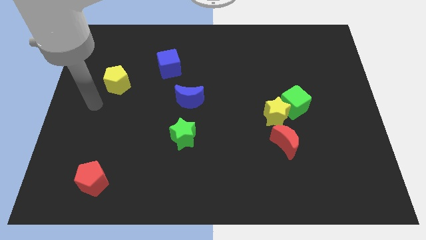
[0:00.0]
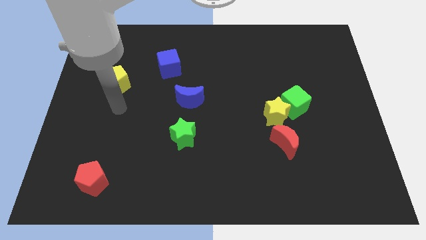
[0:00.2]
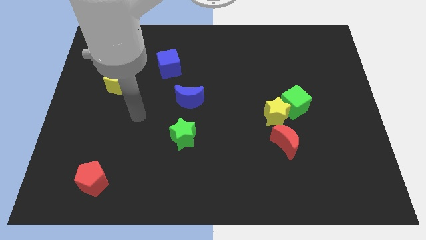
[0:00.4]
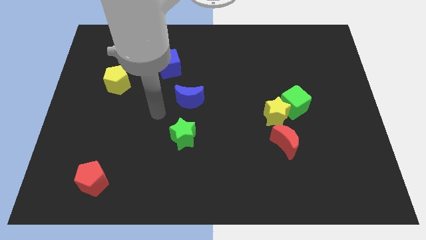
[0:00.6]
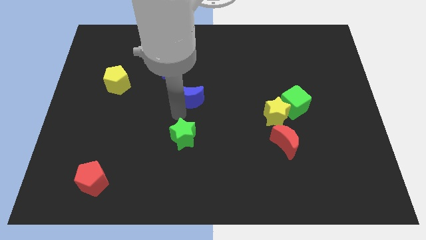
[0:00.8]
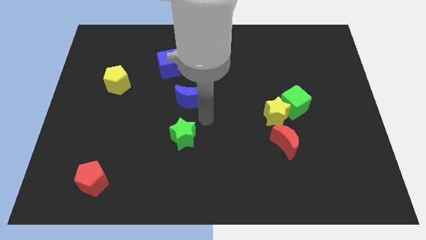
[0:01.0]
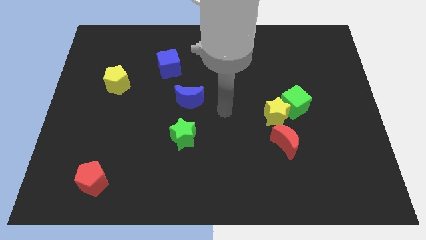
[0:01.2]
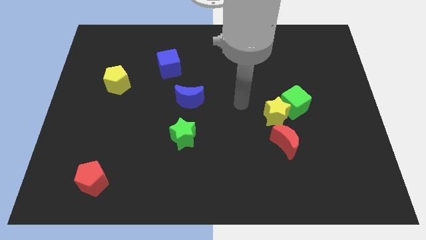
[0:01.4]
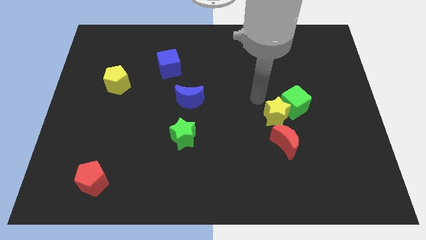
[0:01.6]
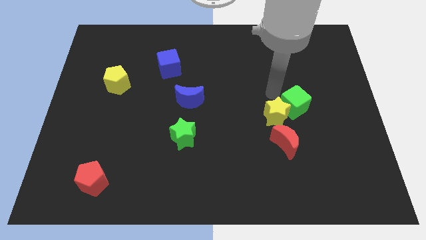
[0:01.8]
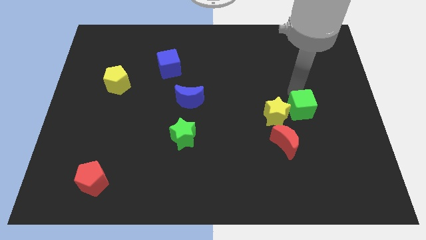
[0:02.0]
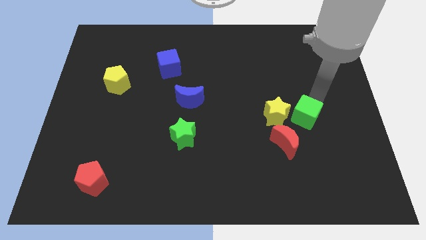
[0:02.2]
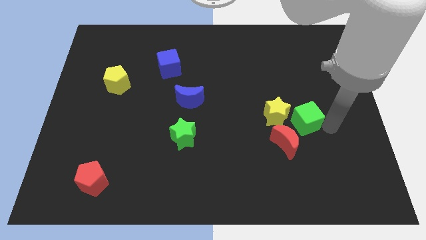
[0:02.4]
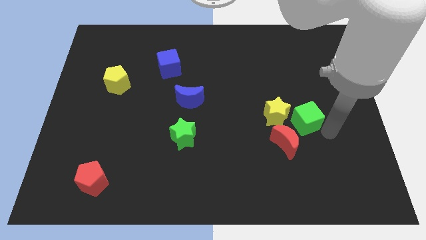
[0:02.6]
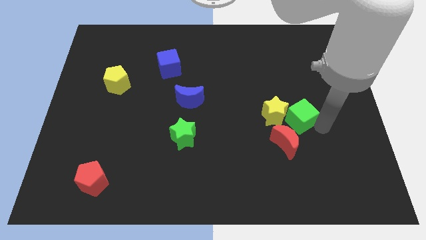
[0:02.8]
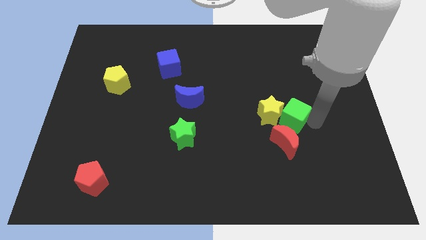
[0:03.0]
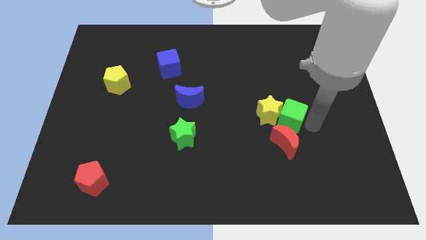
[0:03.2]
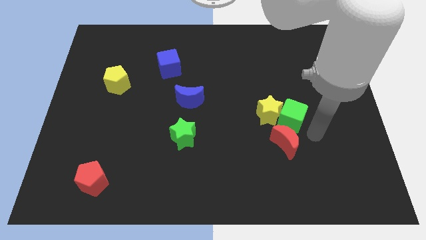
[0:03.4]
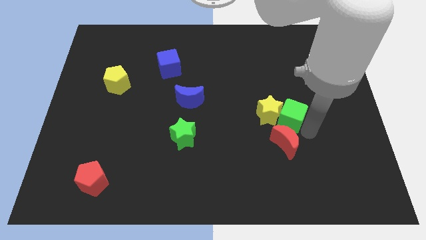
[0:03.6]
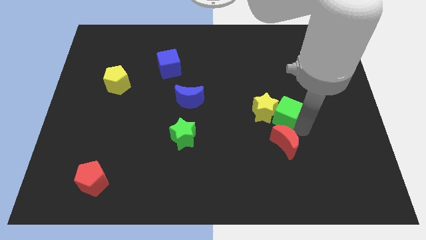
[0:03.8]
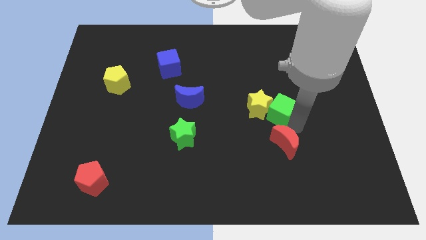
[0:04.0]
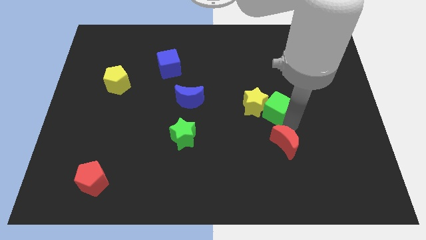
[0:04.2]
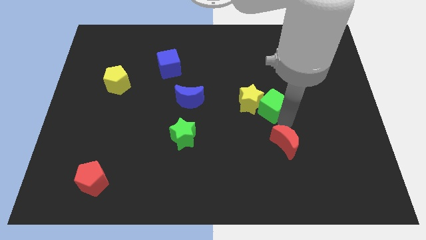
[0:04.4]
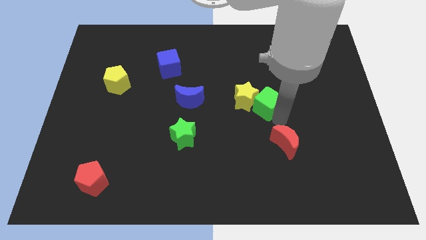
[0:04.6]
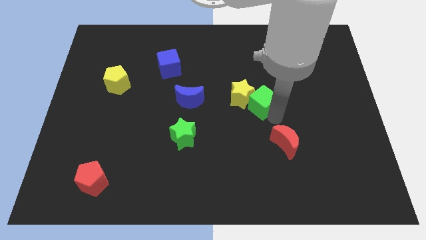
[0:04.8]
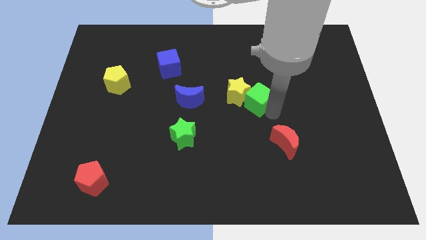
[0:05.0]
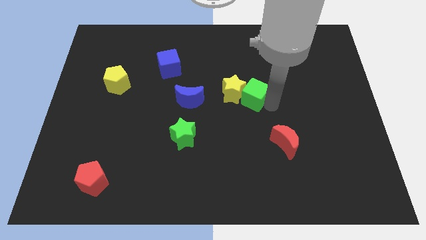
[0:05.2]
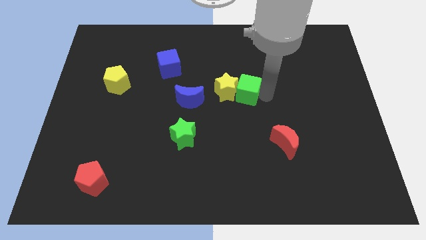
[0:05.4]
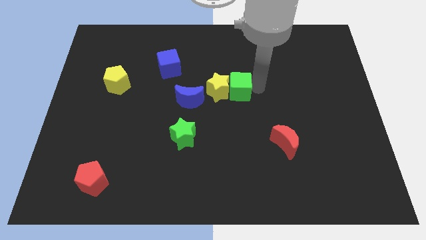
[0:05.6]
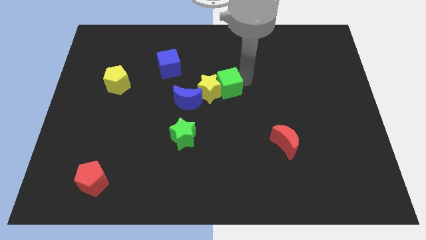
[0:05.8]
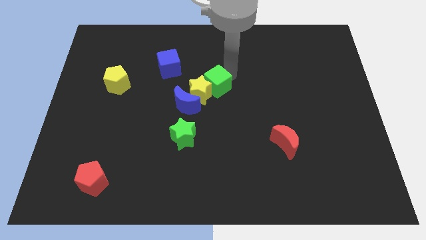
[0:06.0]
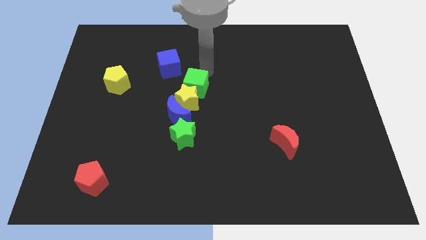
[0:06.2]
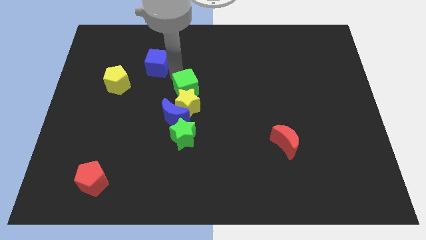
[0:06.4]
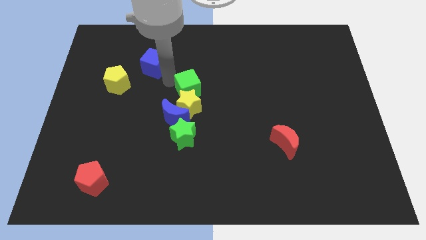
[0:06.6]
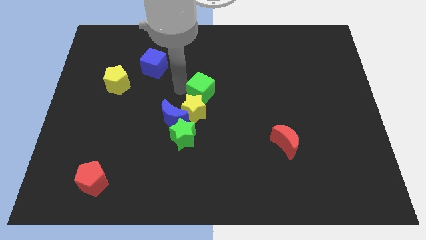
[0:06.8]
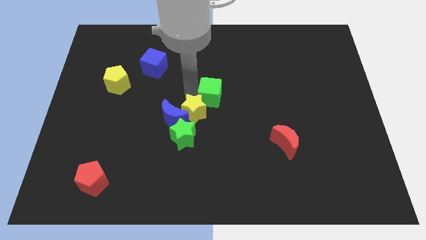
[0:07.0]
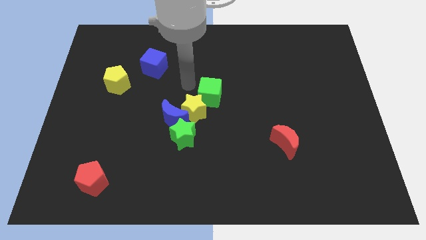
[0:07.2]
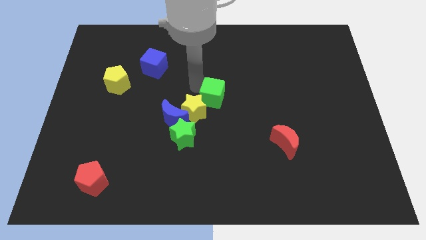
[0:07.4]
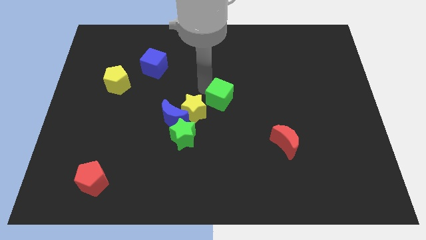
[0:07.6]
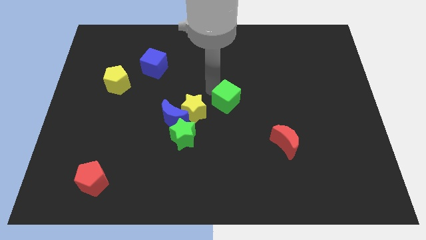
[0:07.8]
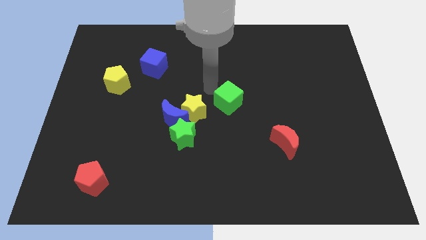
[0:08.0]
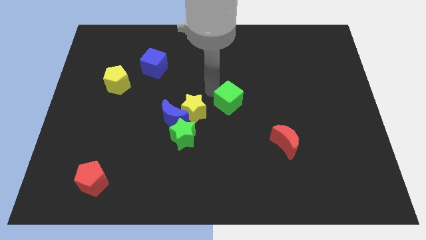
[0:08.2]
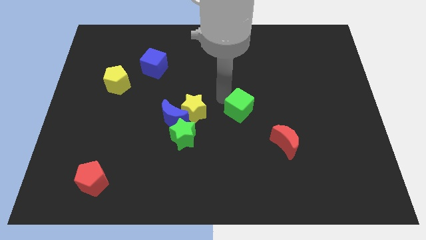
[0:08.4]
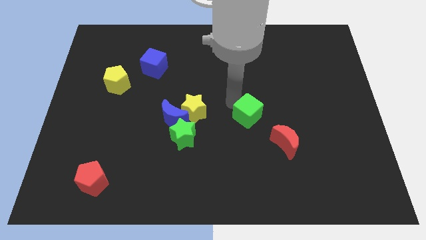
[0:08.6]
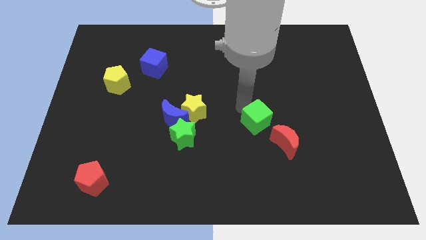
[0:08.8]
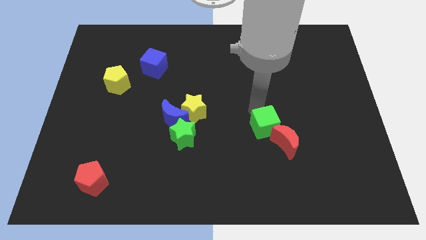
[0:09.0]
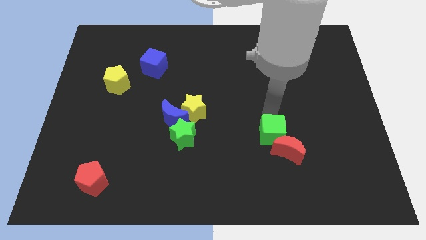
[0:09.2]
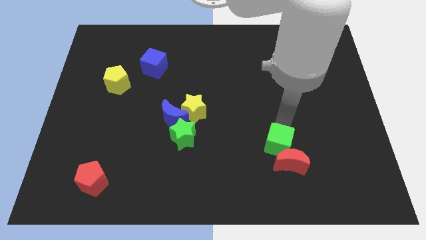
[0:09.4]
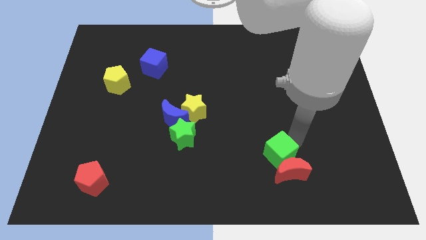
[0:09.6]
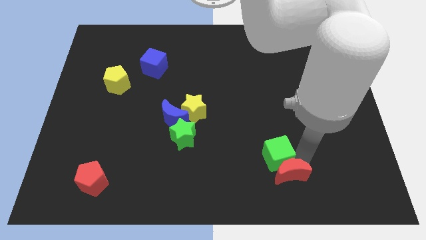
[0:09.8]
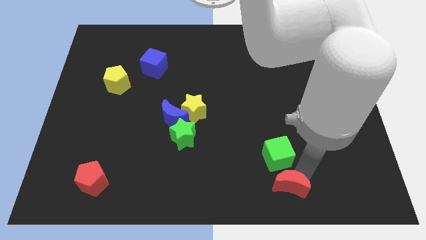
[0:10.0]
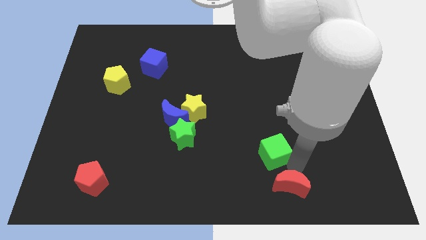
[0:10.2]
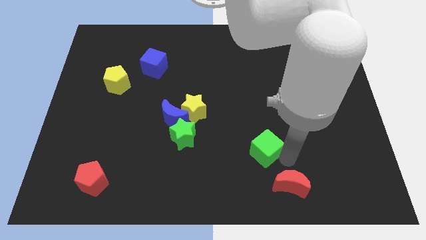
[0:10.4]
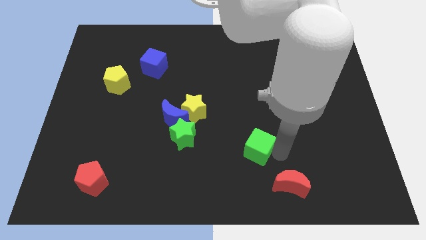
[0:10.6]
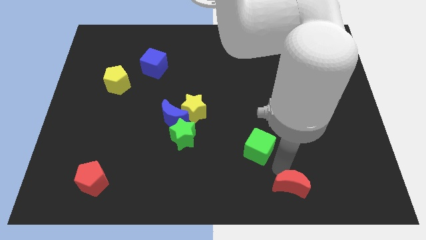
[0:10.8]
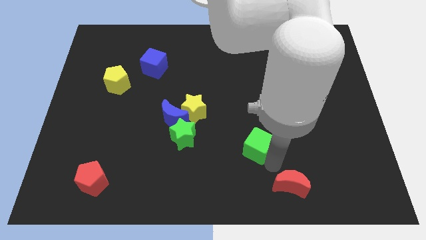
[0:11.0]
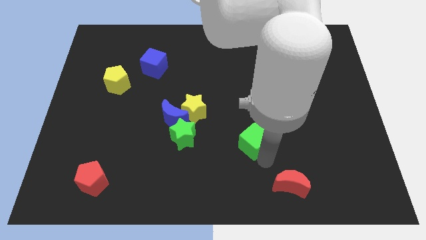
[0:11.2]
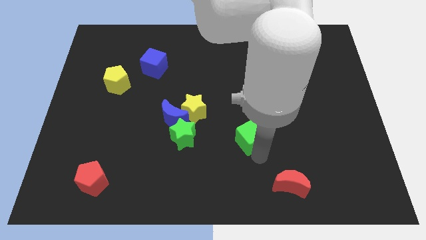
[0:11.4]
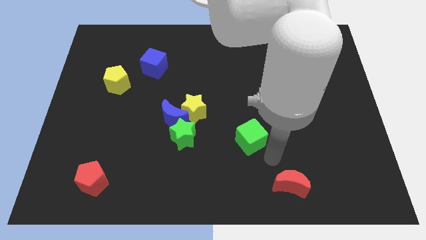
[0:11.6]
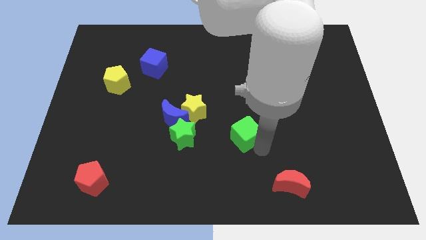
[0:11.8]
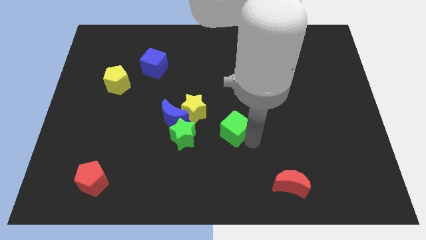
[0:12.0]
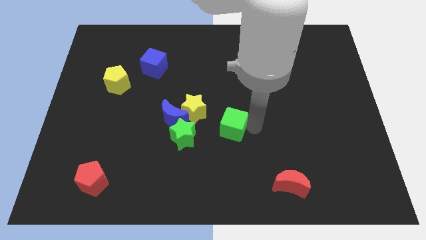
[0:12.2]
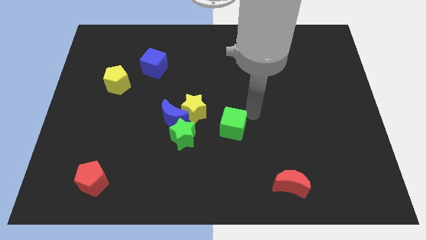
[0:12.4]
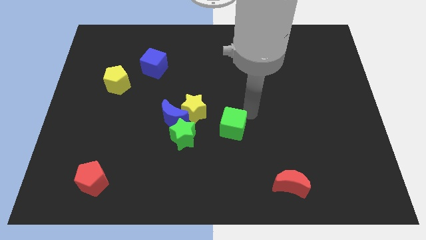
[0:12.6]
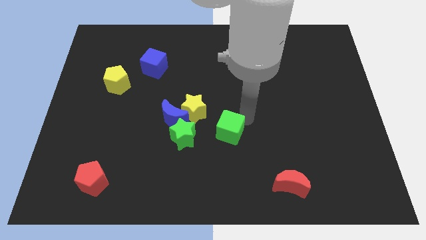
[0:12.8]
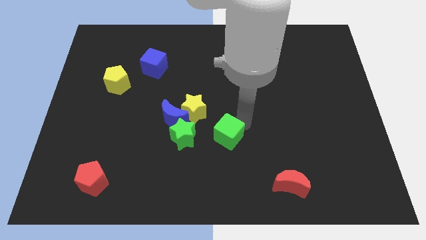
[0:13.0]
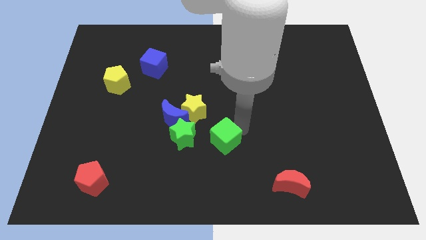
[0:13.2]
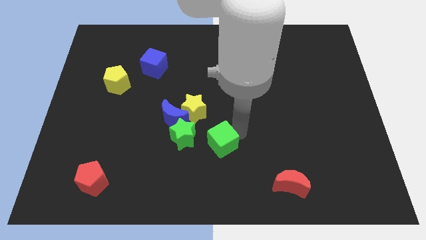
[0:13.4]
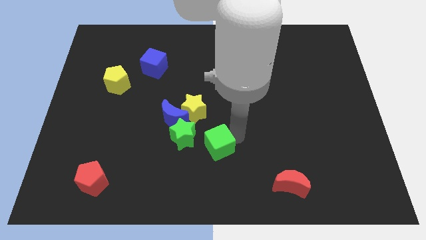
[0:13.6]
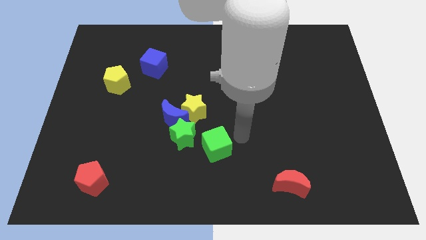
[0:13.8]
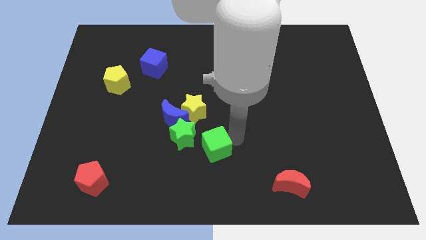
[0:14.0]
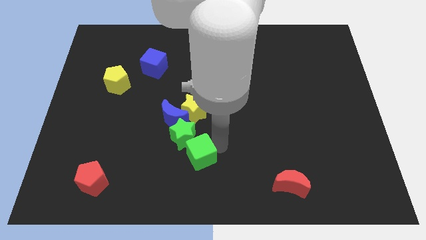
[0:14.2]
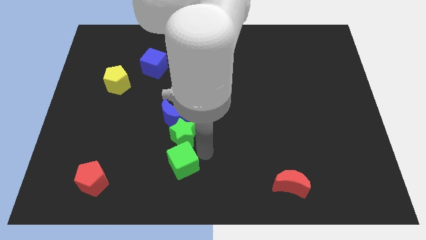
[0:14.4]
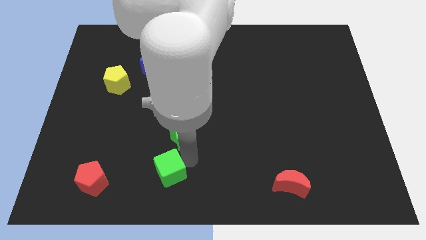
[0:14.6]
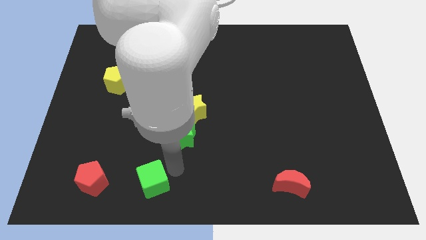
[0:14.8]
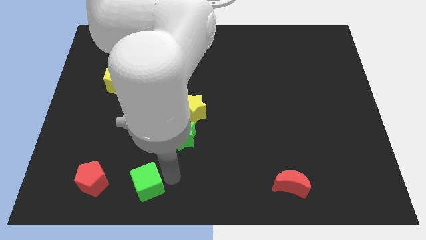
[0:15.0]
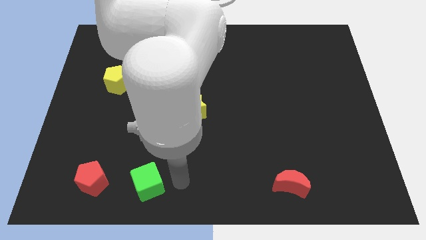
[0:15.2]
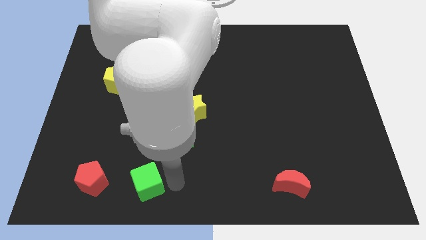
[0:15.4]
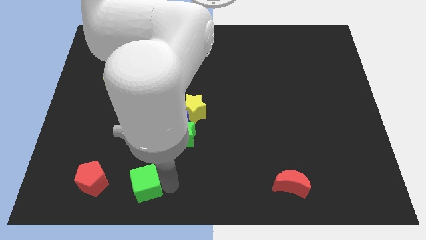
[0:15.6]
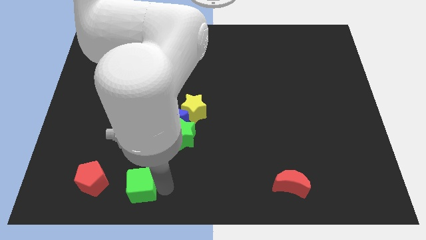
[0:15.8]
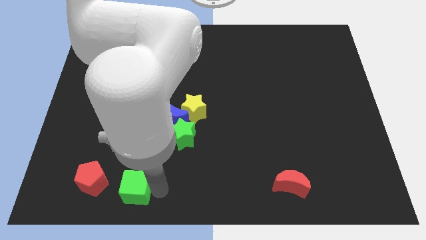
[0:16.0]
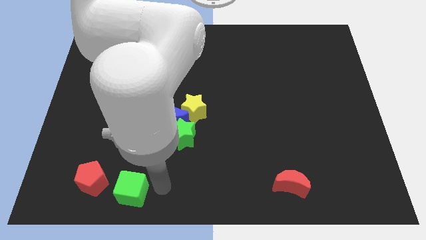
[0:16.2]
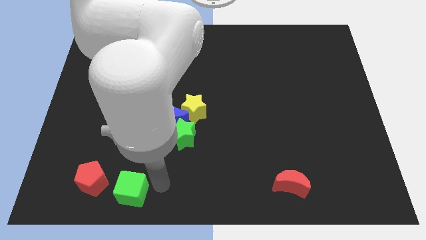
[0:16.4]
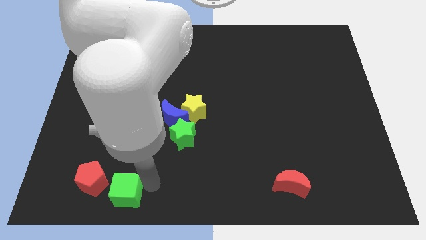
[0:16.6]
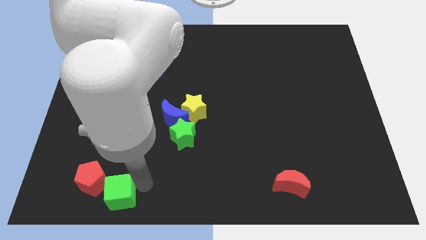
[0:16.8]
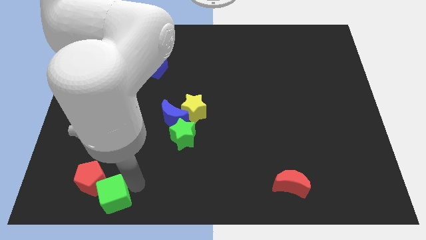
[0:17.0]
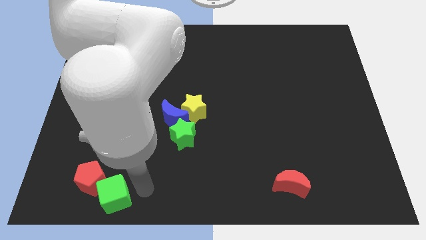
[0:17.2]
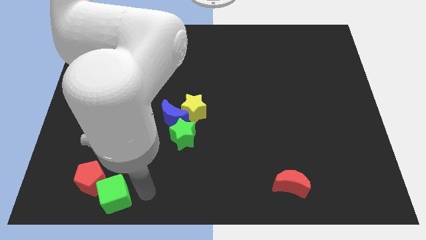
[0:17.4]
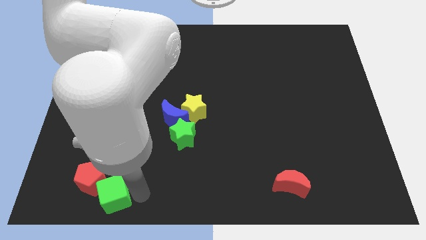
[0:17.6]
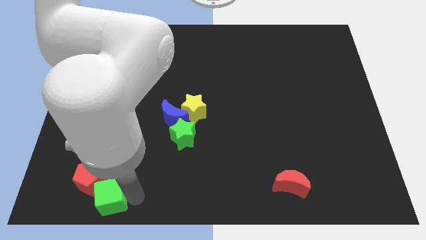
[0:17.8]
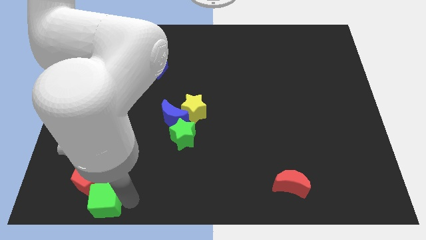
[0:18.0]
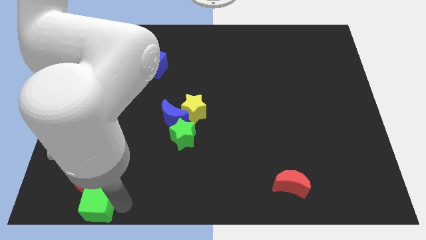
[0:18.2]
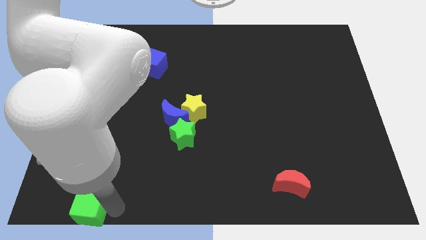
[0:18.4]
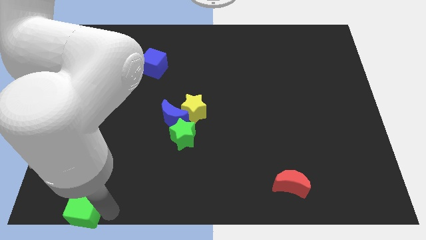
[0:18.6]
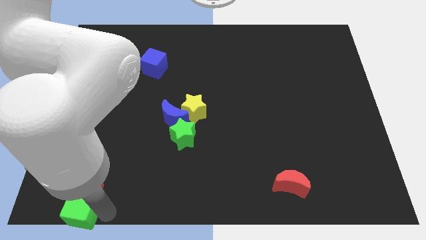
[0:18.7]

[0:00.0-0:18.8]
put the green cube to the bottom left
